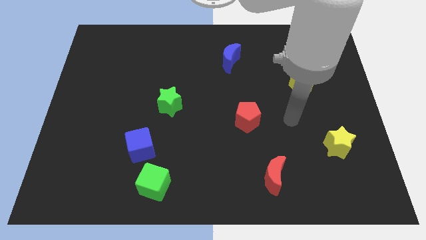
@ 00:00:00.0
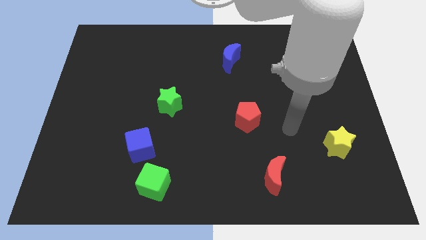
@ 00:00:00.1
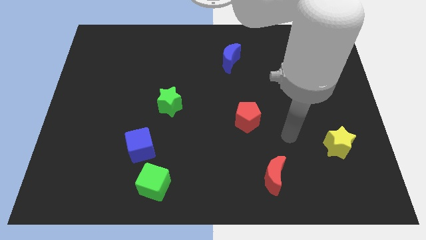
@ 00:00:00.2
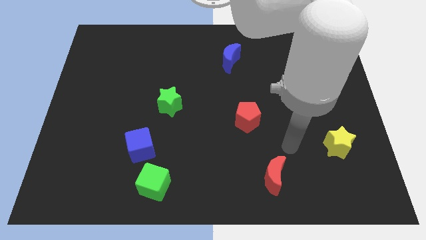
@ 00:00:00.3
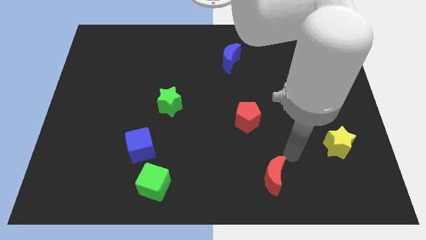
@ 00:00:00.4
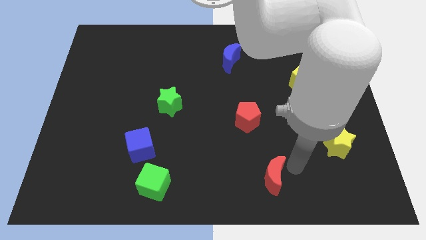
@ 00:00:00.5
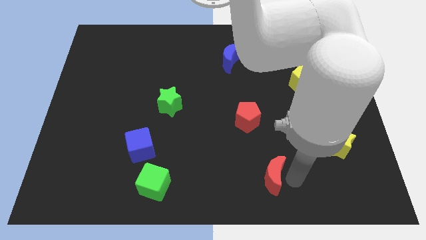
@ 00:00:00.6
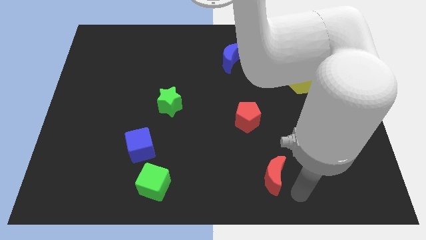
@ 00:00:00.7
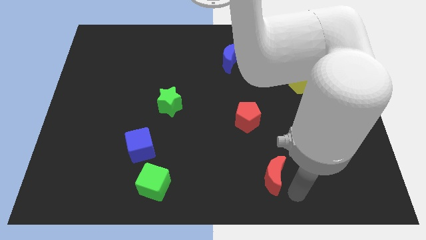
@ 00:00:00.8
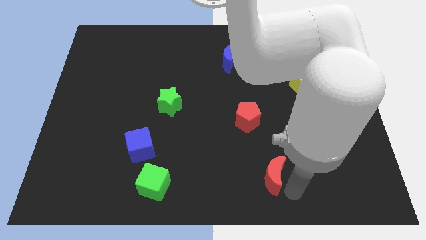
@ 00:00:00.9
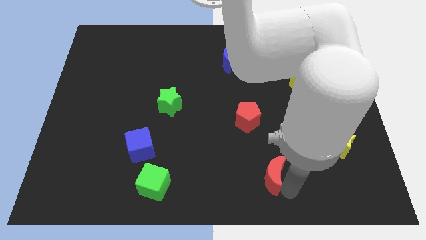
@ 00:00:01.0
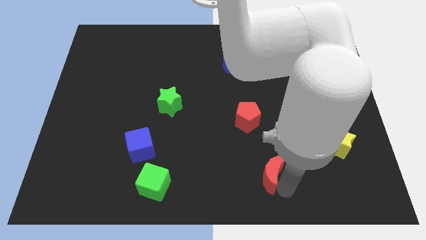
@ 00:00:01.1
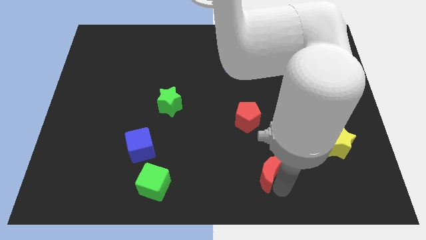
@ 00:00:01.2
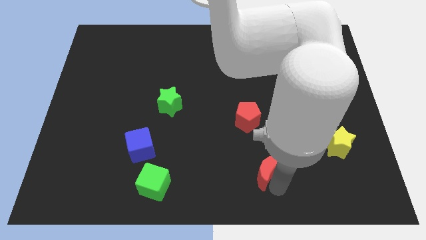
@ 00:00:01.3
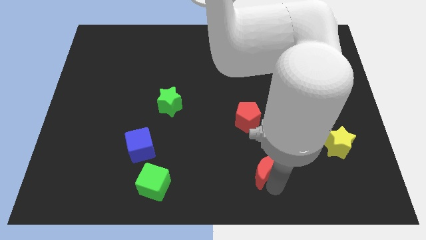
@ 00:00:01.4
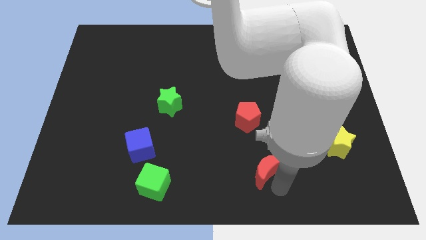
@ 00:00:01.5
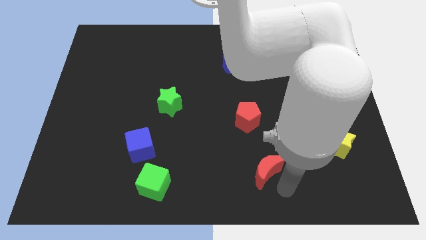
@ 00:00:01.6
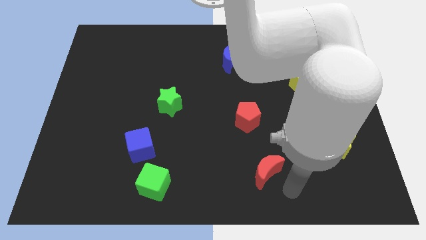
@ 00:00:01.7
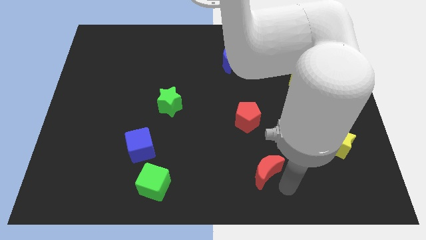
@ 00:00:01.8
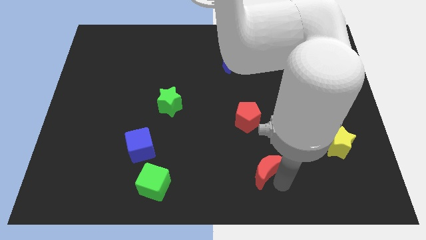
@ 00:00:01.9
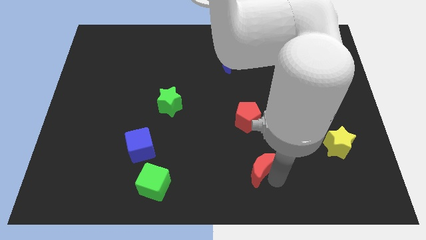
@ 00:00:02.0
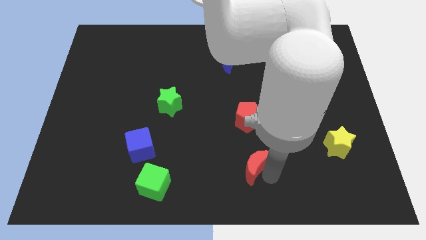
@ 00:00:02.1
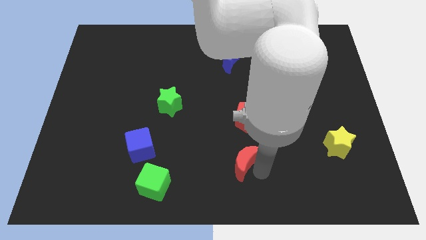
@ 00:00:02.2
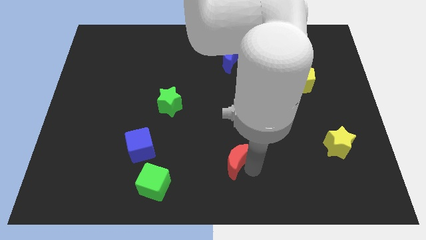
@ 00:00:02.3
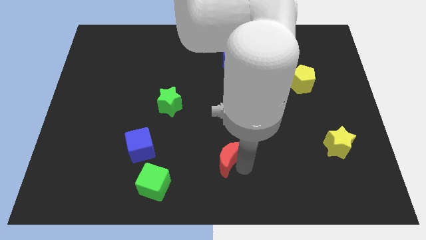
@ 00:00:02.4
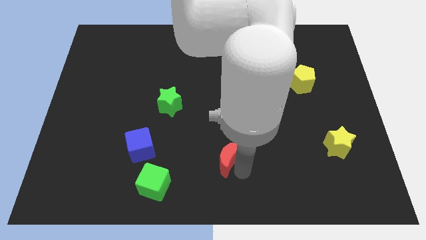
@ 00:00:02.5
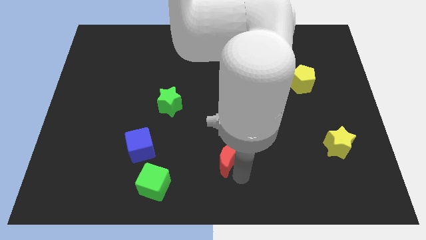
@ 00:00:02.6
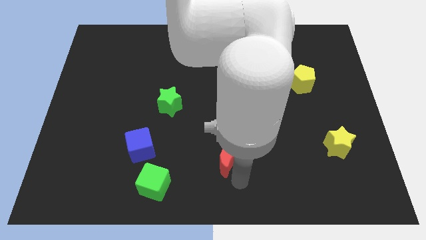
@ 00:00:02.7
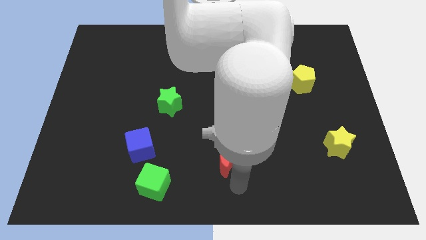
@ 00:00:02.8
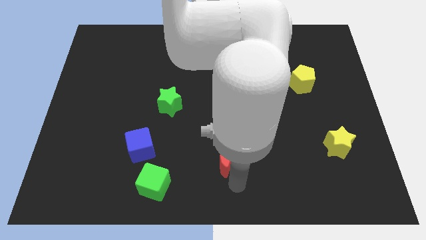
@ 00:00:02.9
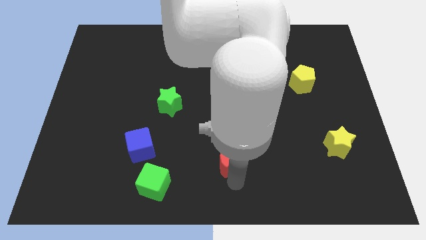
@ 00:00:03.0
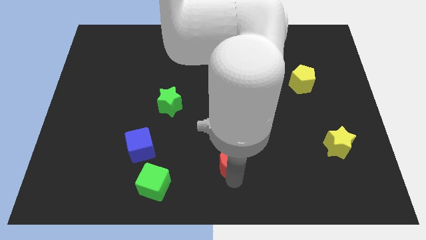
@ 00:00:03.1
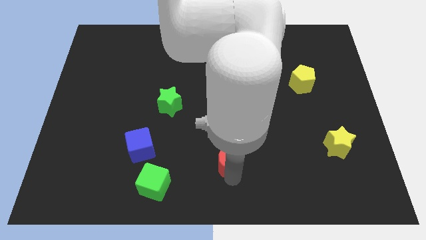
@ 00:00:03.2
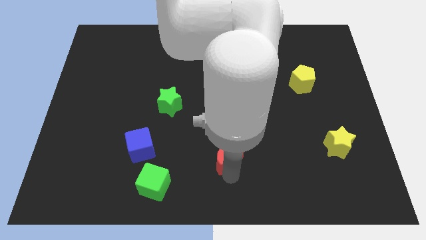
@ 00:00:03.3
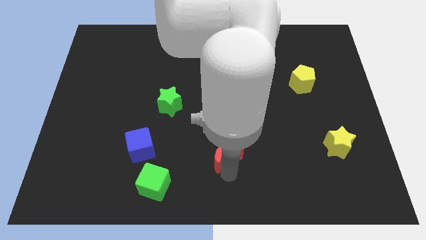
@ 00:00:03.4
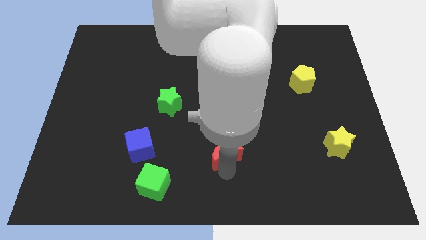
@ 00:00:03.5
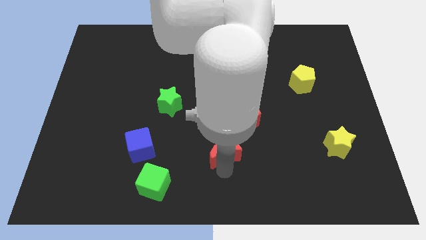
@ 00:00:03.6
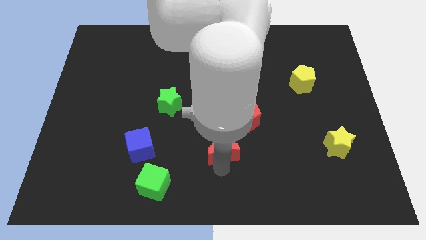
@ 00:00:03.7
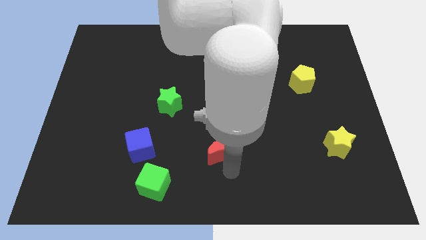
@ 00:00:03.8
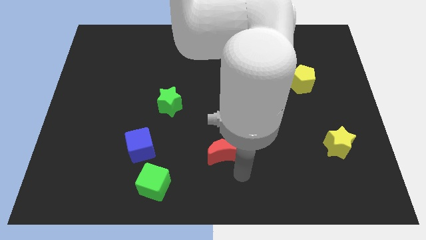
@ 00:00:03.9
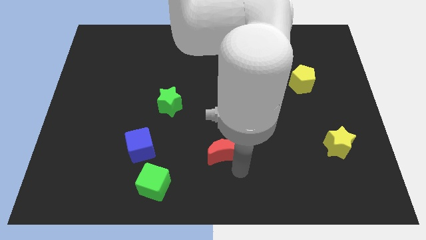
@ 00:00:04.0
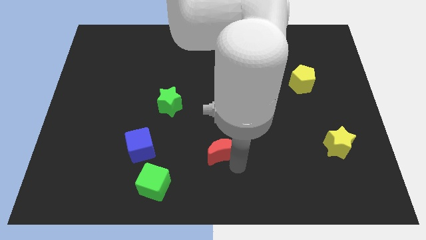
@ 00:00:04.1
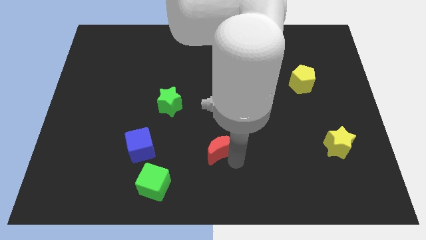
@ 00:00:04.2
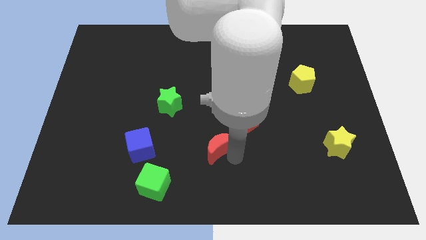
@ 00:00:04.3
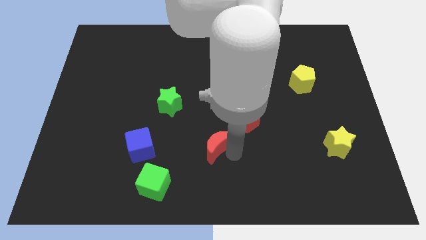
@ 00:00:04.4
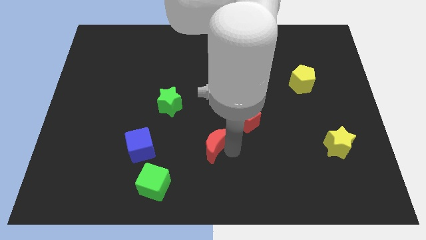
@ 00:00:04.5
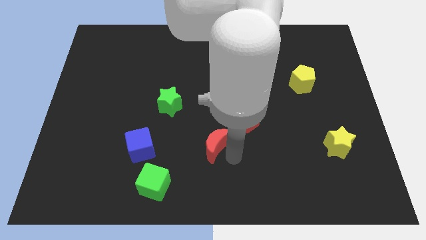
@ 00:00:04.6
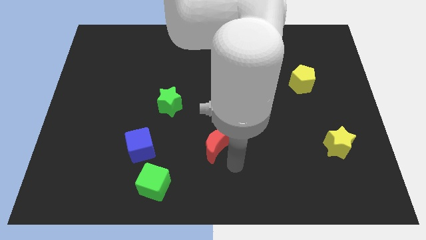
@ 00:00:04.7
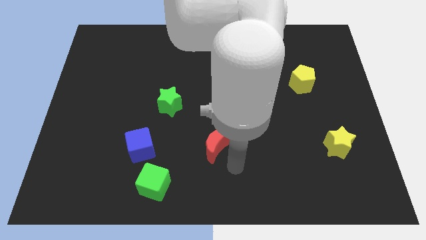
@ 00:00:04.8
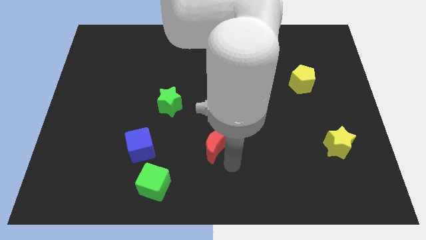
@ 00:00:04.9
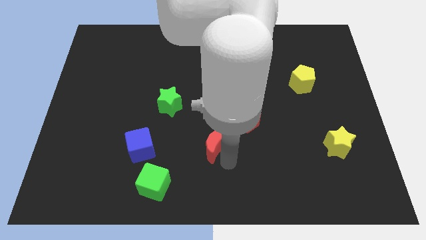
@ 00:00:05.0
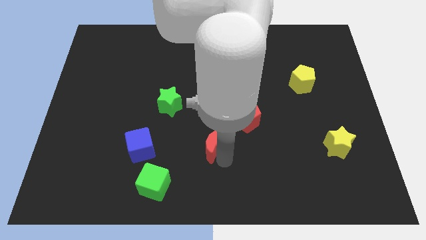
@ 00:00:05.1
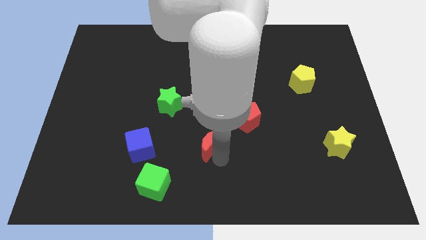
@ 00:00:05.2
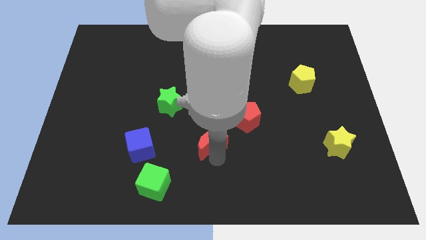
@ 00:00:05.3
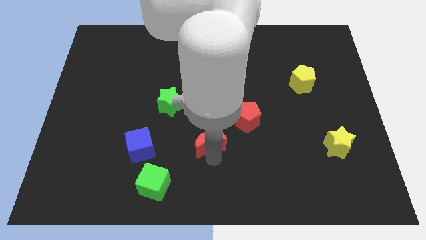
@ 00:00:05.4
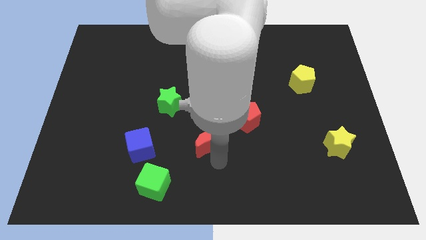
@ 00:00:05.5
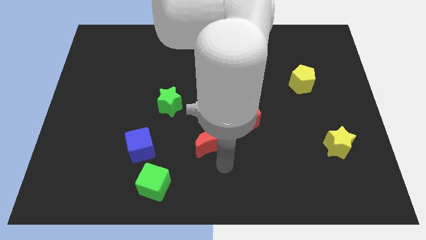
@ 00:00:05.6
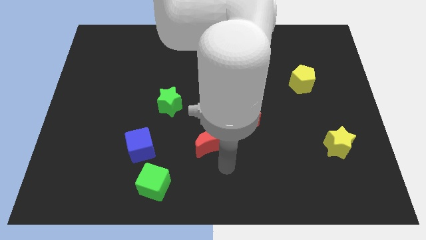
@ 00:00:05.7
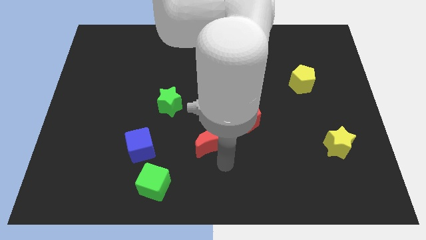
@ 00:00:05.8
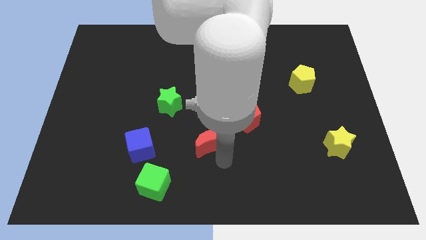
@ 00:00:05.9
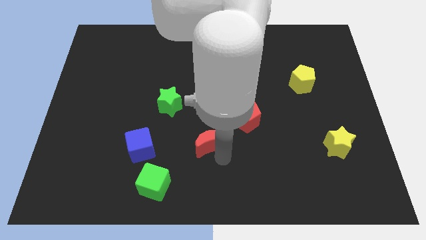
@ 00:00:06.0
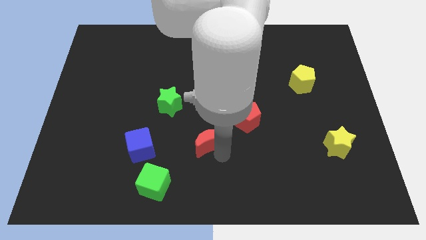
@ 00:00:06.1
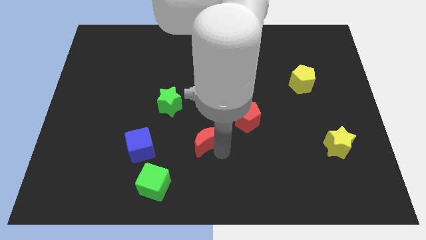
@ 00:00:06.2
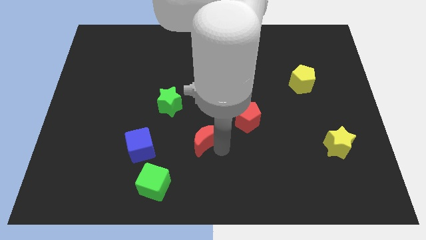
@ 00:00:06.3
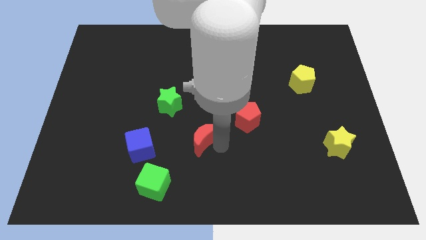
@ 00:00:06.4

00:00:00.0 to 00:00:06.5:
put the red moon diagonally down and to the right of the green star
